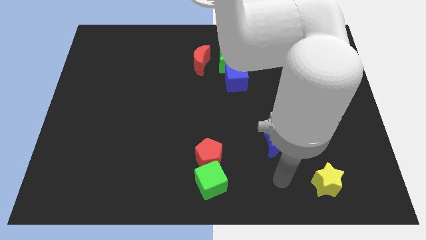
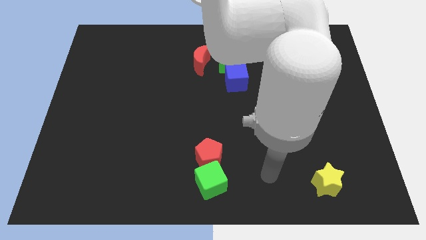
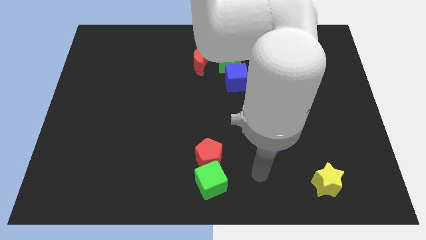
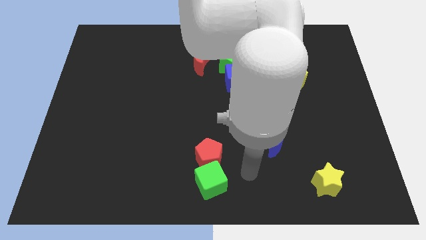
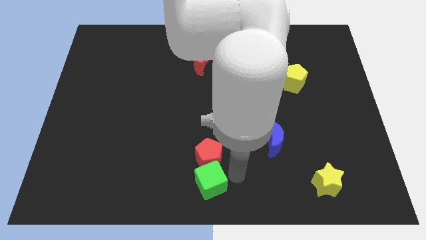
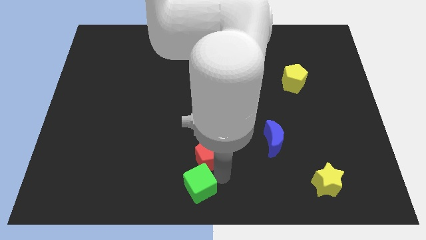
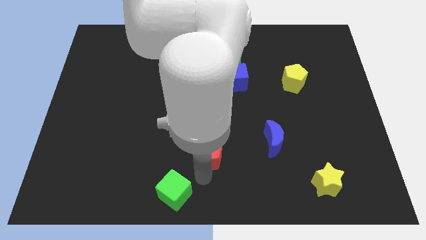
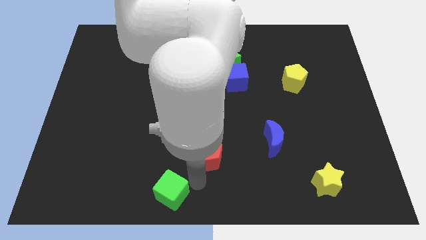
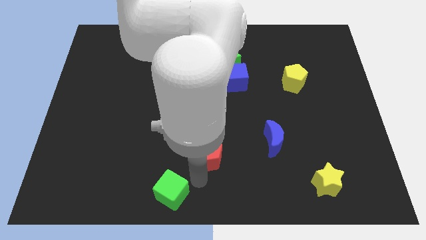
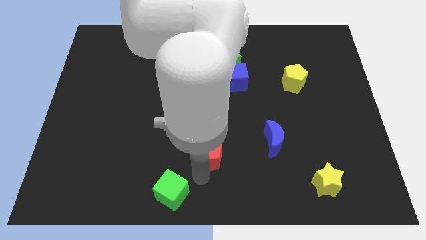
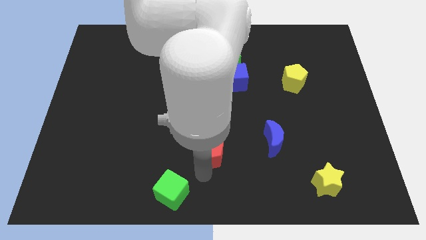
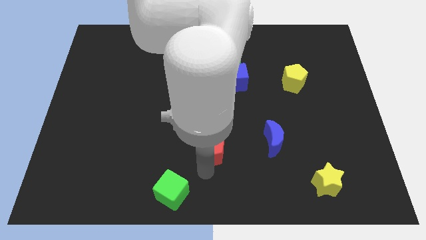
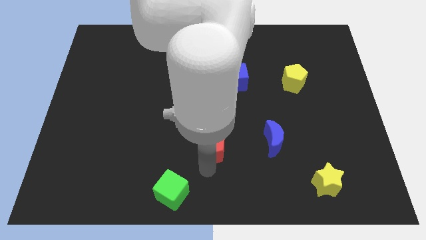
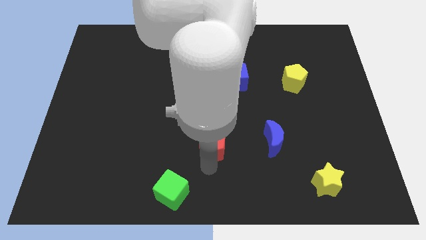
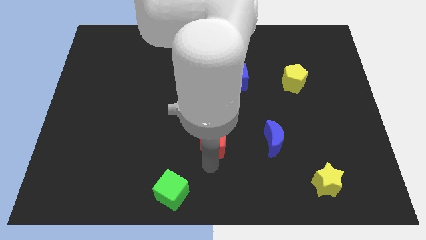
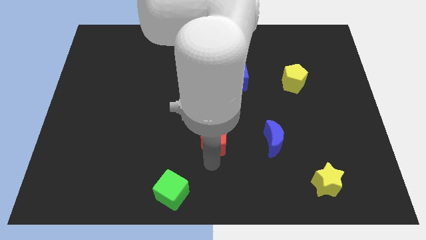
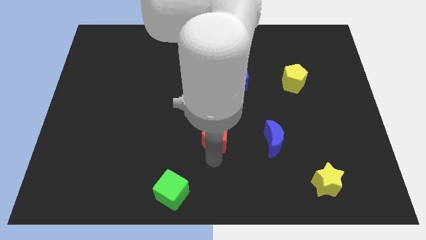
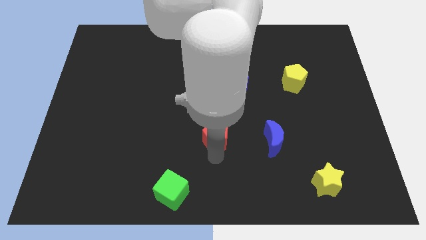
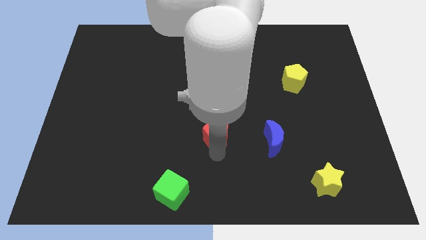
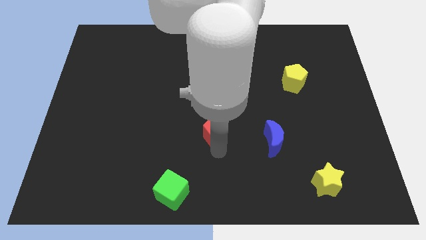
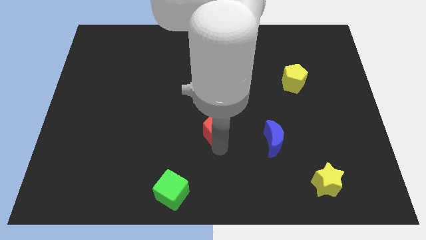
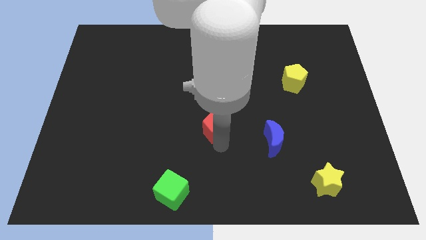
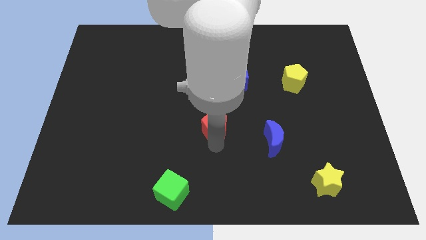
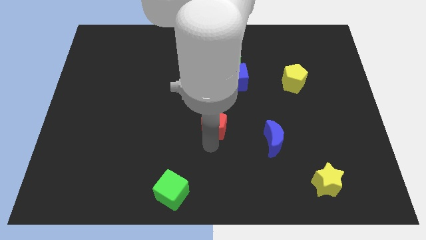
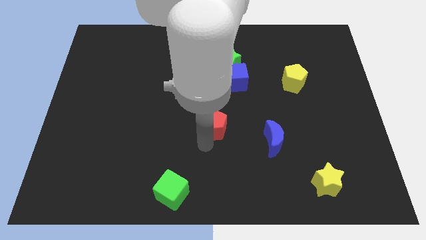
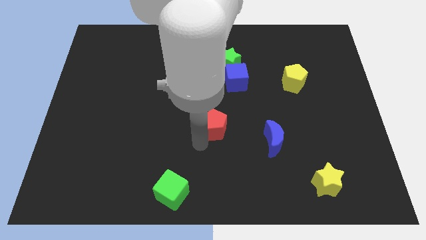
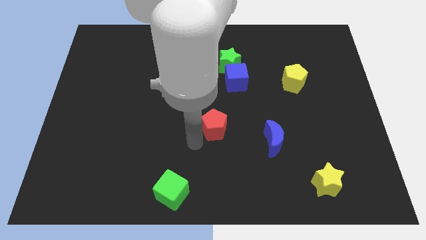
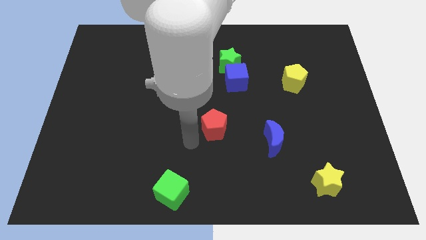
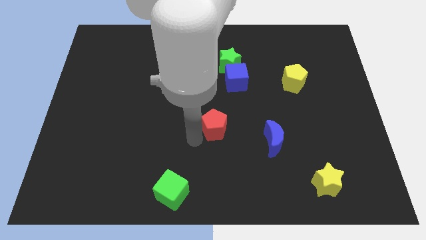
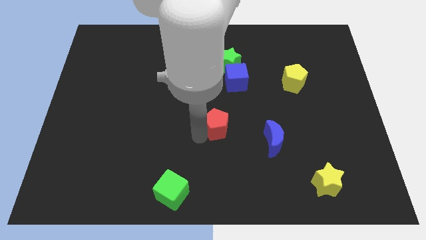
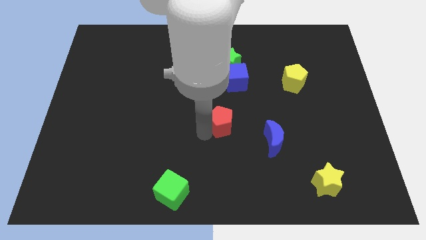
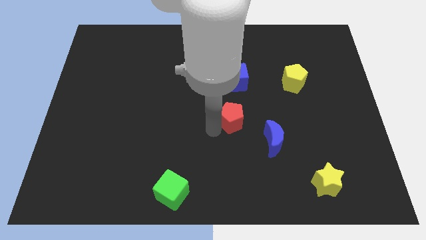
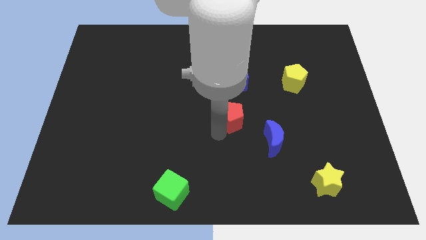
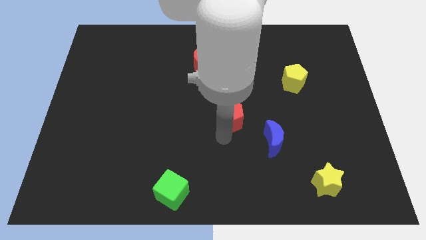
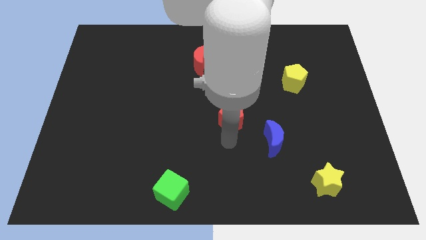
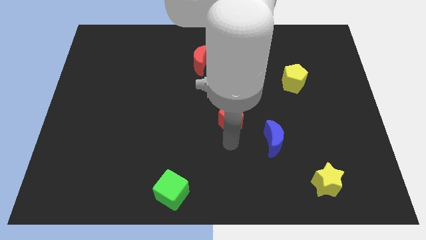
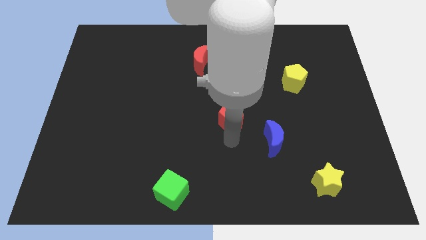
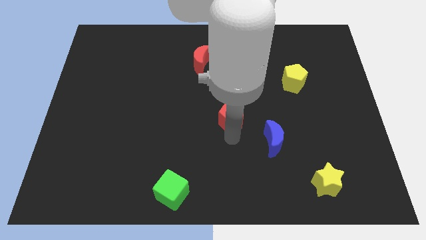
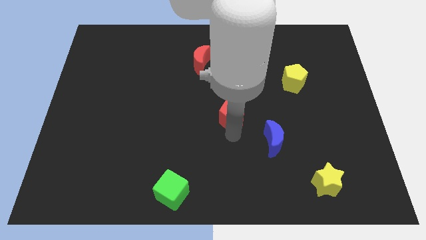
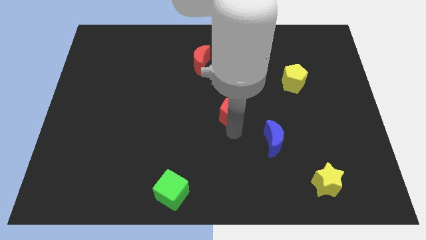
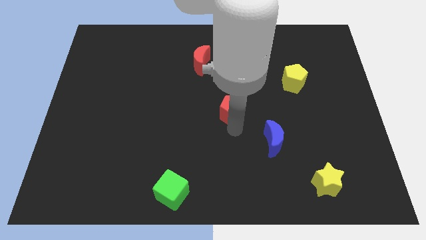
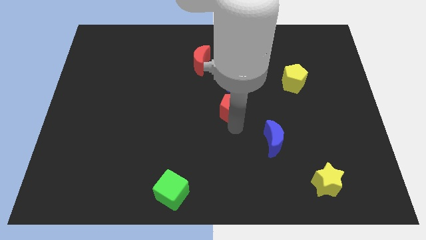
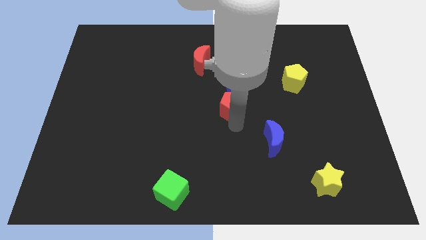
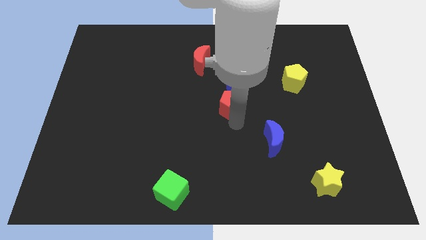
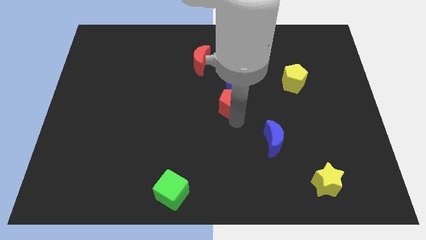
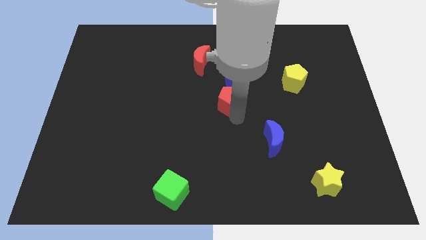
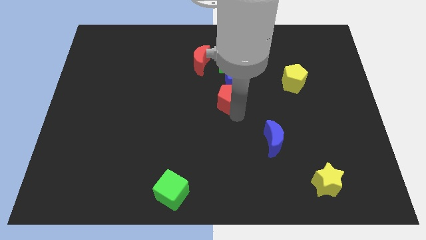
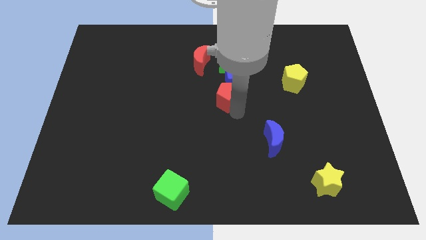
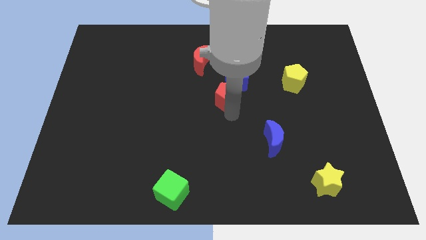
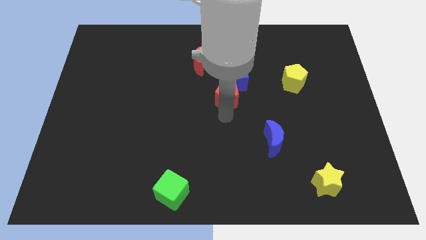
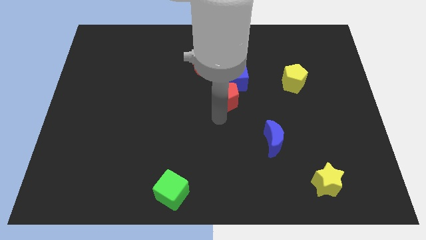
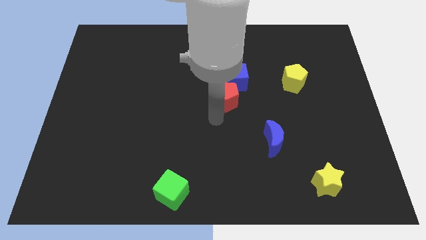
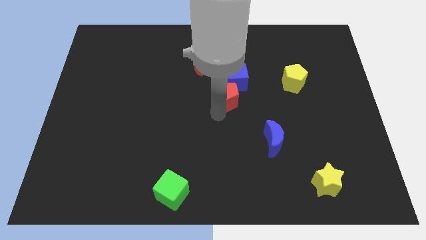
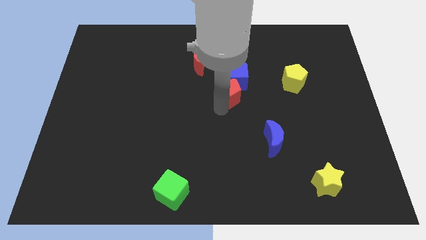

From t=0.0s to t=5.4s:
push the red pentagon next to the blue cube

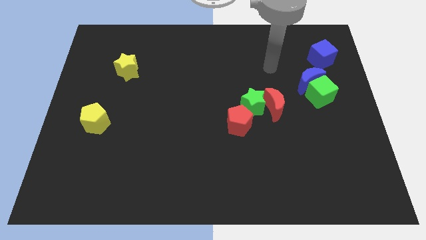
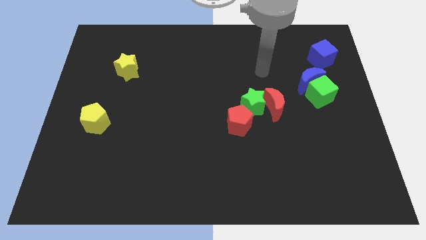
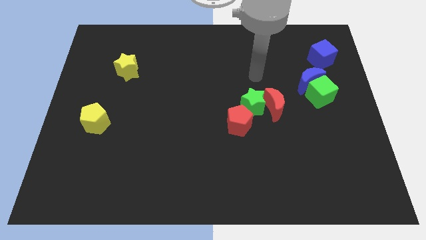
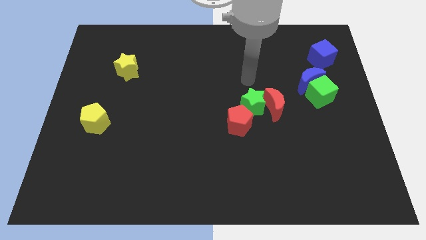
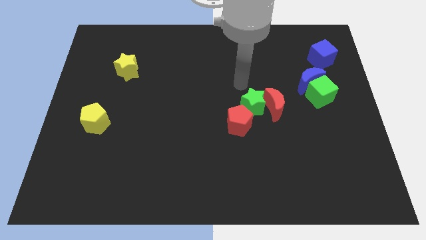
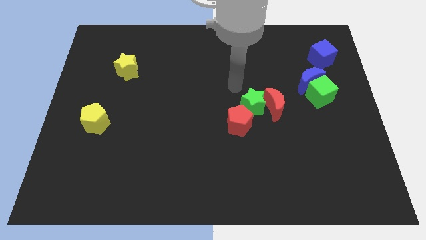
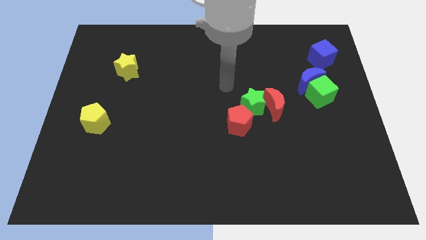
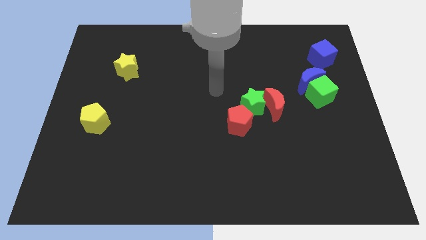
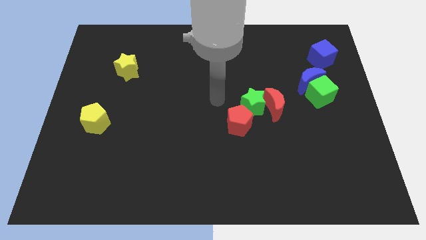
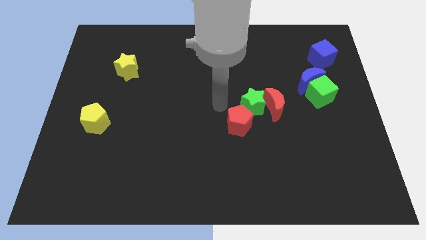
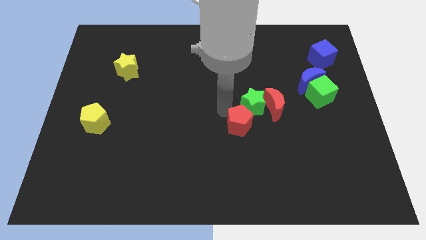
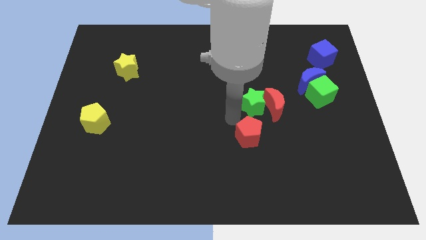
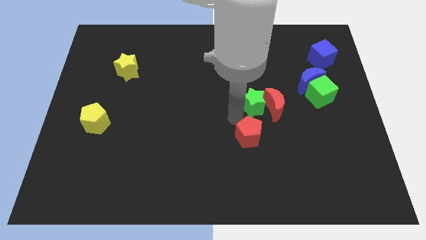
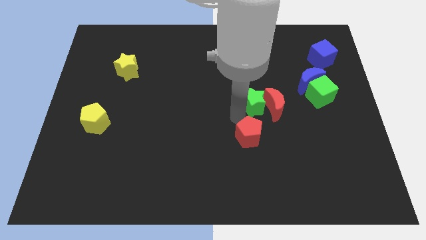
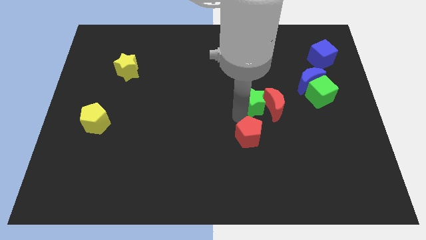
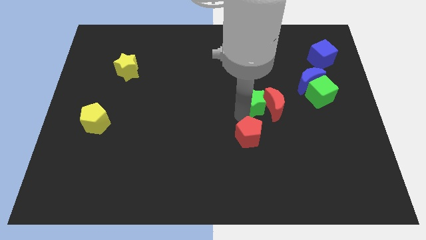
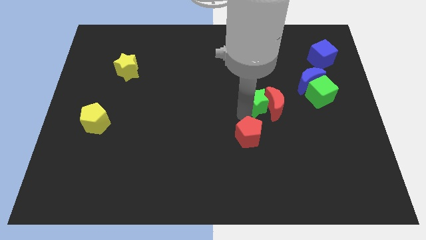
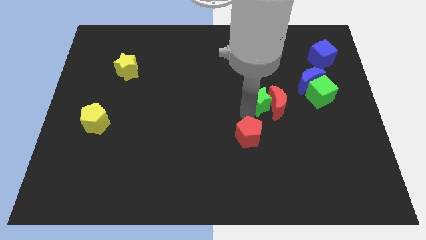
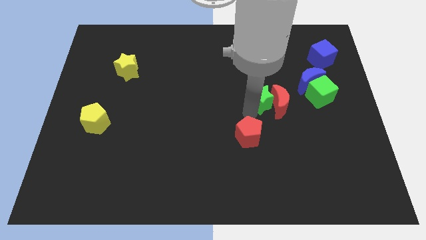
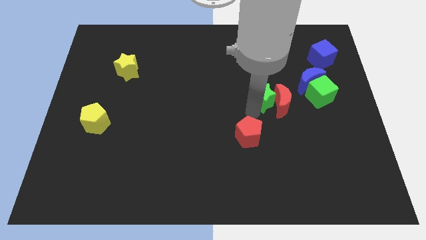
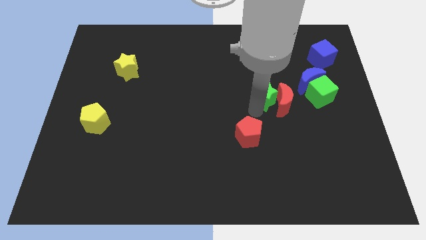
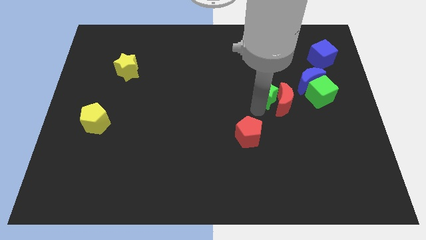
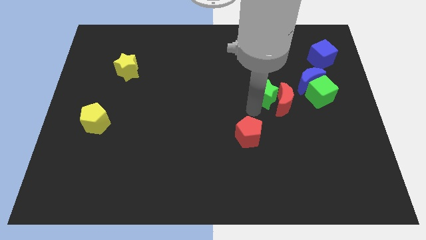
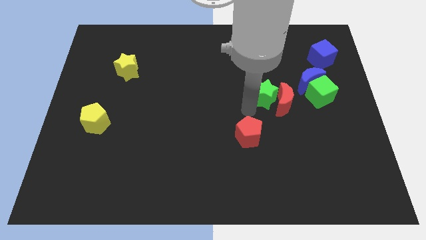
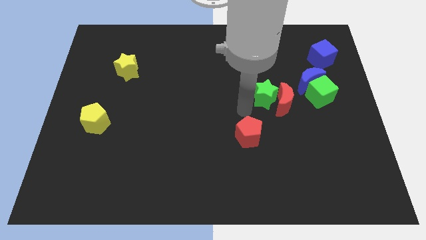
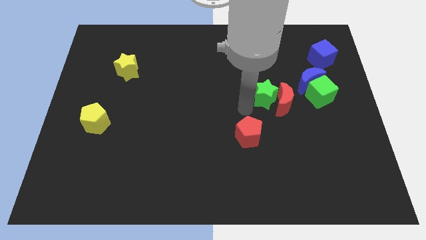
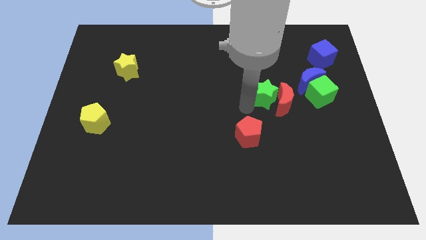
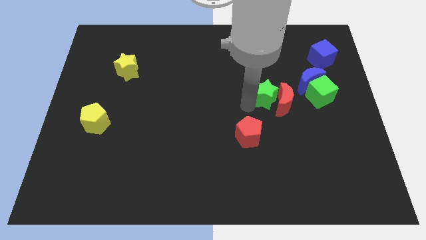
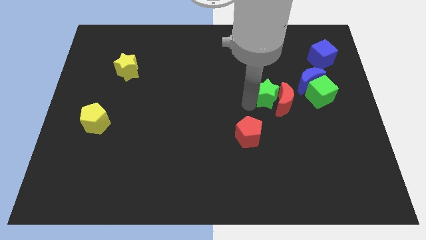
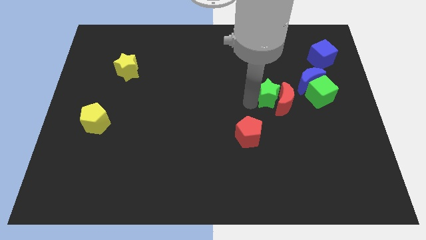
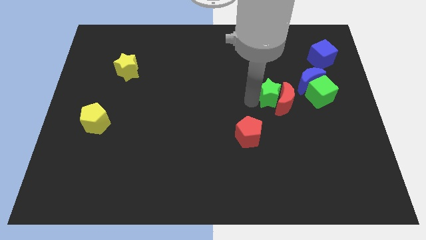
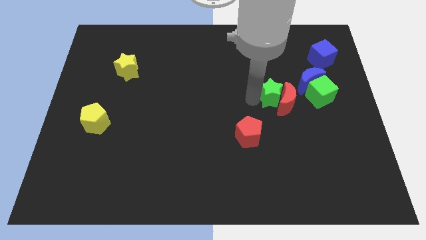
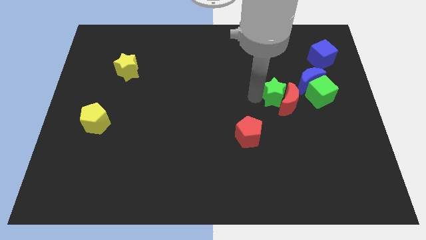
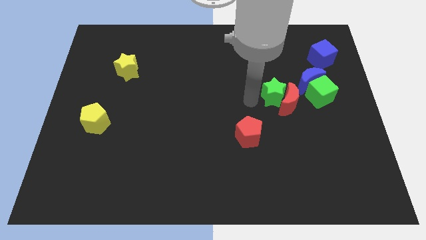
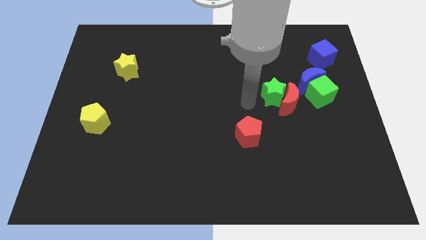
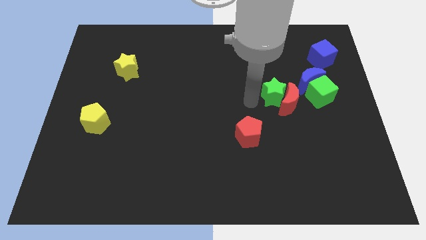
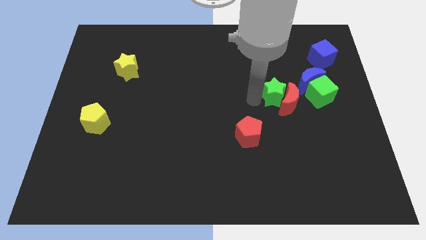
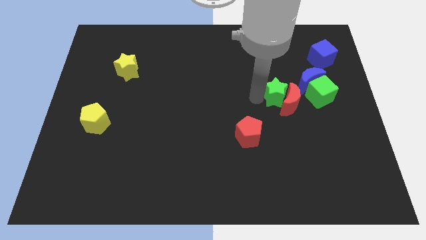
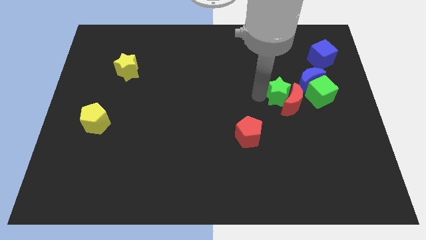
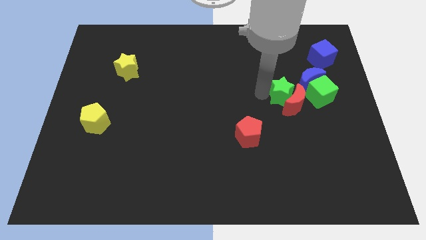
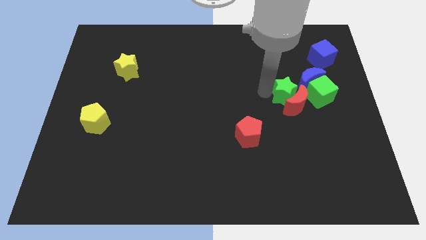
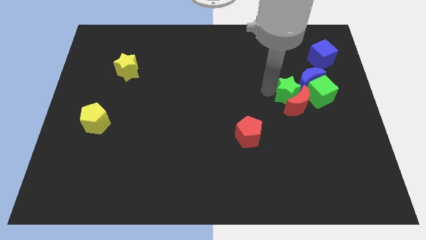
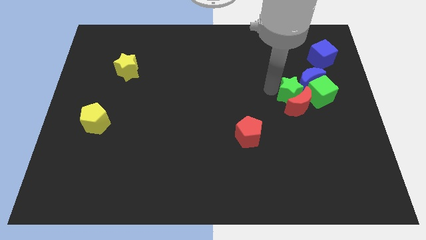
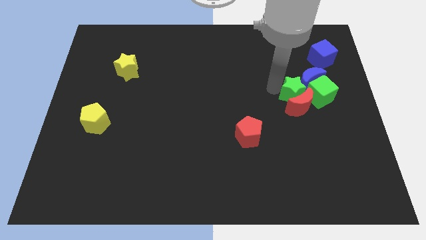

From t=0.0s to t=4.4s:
move the green star next to the blue moon
